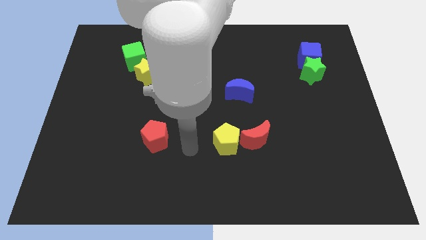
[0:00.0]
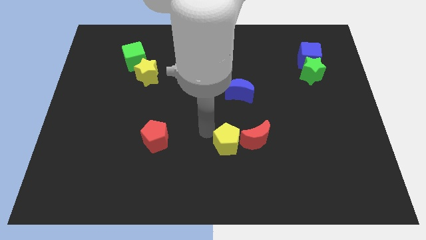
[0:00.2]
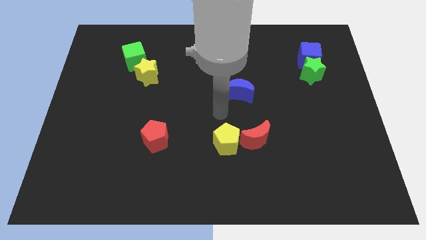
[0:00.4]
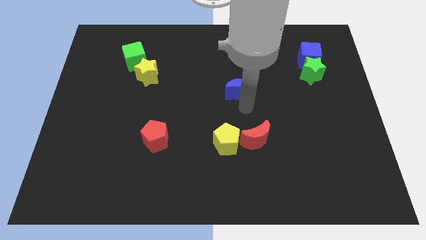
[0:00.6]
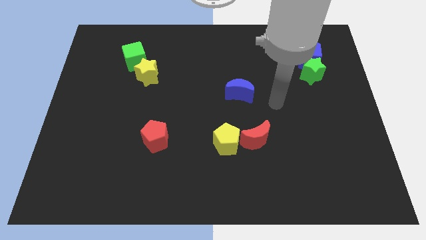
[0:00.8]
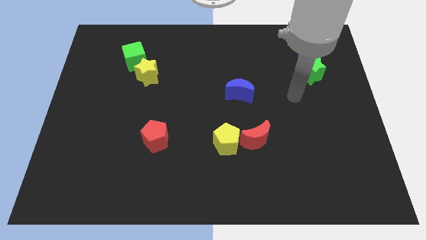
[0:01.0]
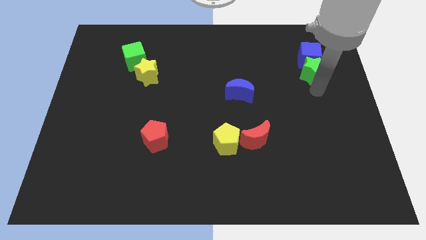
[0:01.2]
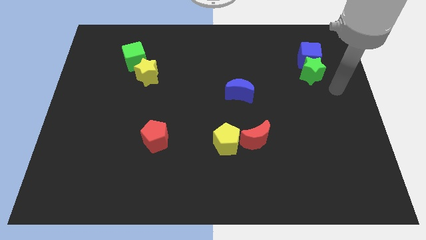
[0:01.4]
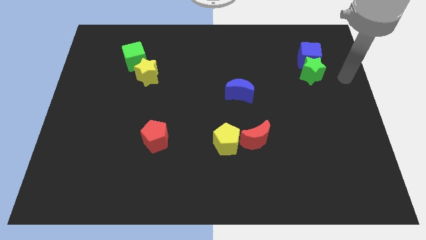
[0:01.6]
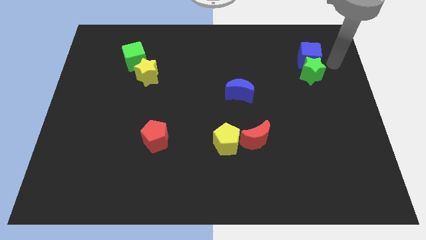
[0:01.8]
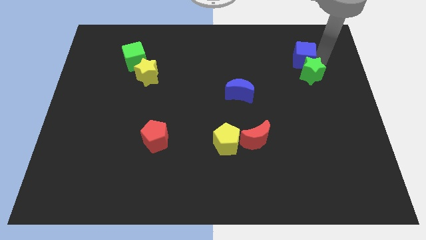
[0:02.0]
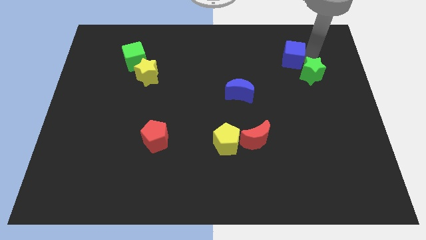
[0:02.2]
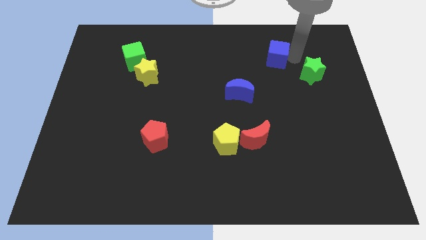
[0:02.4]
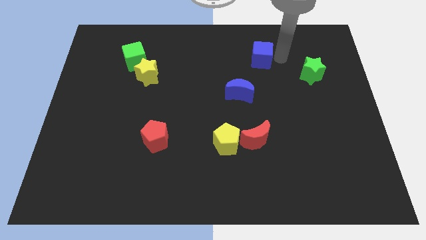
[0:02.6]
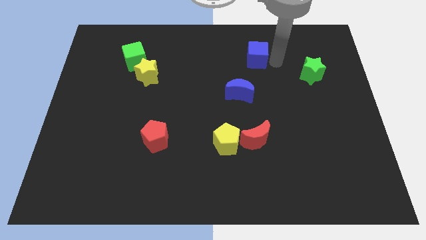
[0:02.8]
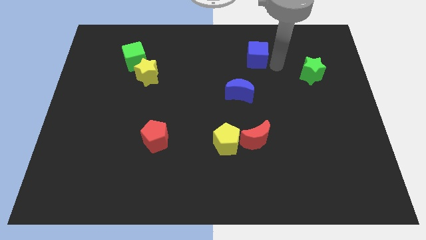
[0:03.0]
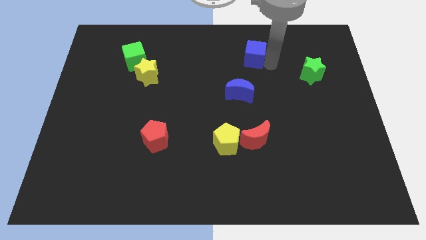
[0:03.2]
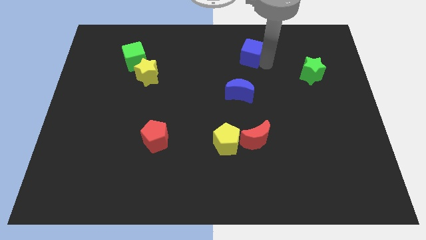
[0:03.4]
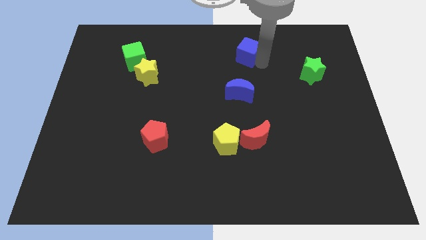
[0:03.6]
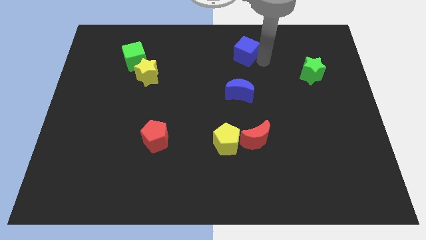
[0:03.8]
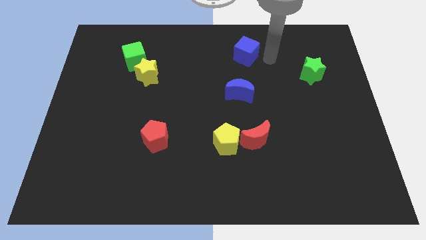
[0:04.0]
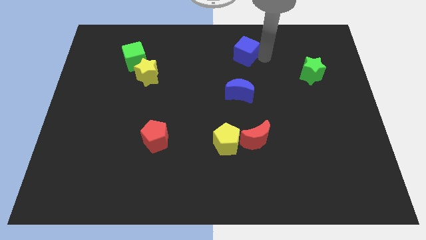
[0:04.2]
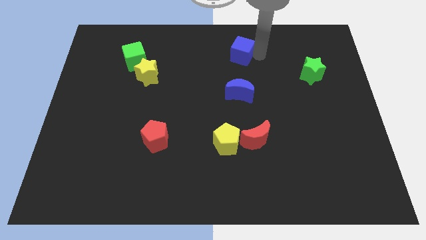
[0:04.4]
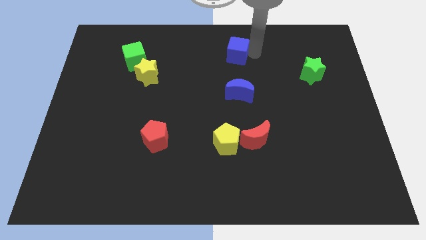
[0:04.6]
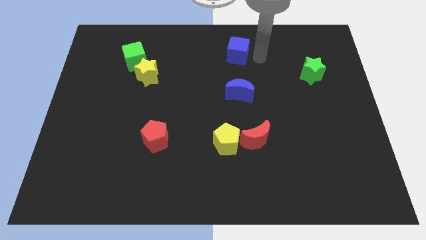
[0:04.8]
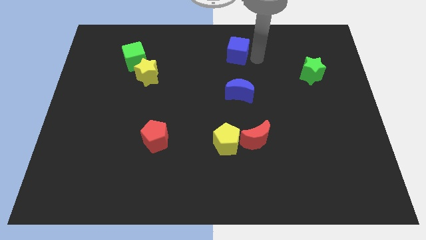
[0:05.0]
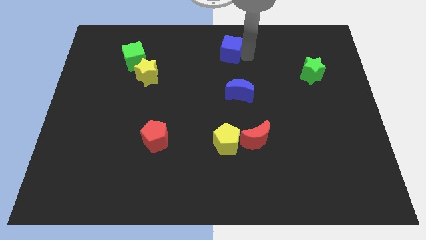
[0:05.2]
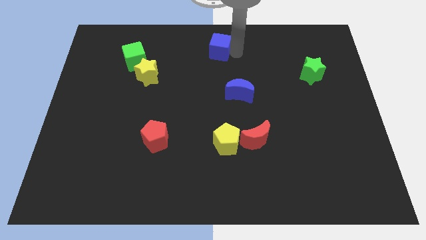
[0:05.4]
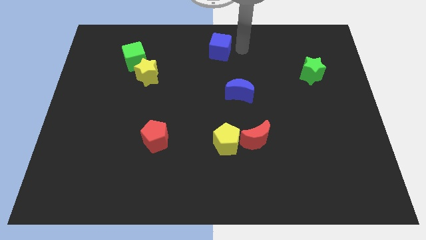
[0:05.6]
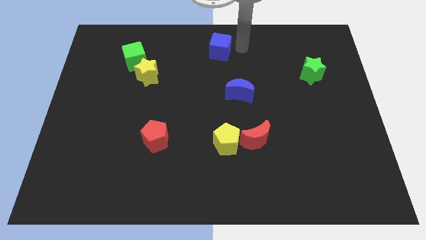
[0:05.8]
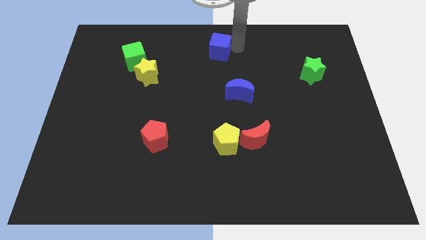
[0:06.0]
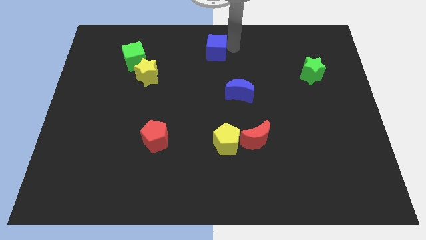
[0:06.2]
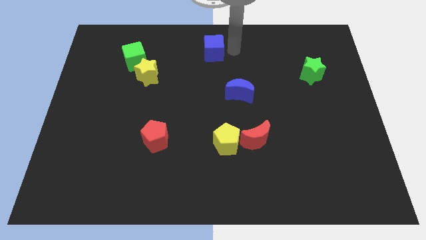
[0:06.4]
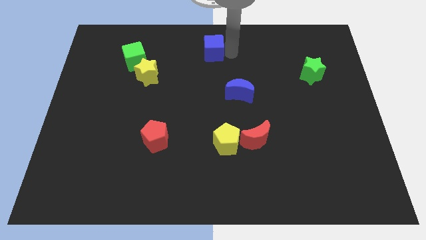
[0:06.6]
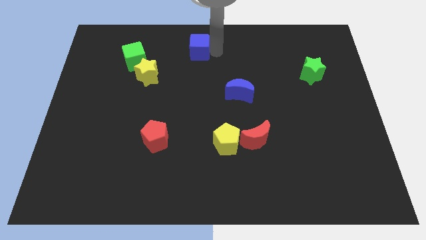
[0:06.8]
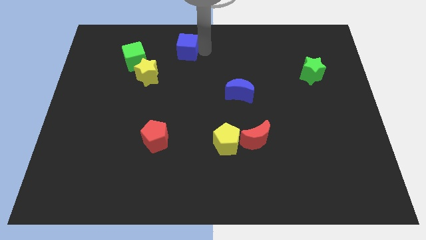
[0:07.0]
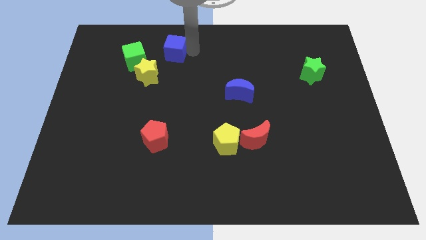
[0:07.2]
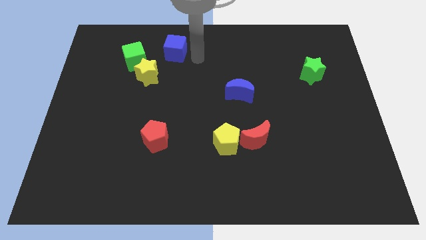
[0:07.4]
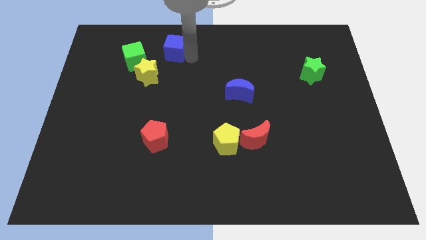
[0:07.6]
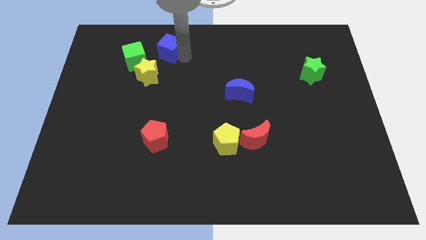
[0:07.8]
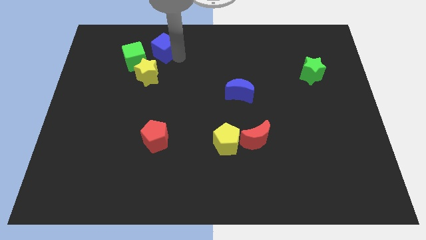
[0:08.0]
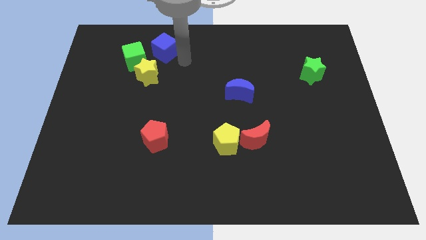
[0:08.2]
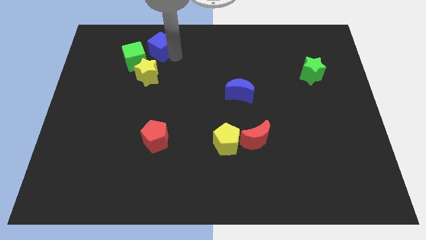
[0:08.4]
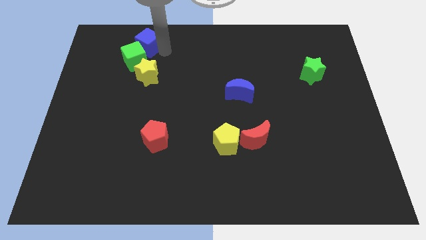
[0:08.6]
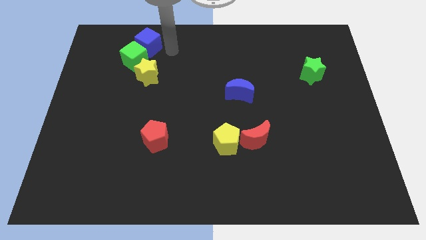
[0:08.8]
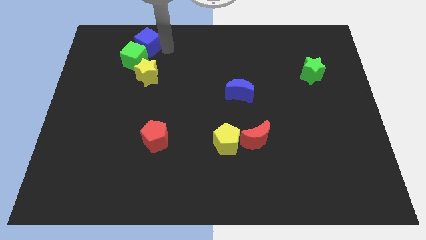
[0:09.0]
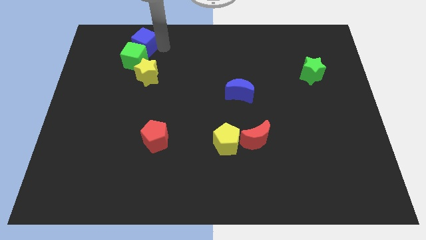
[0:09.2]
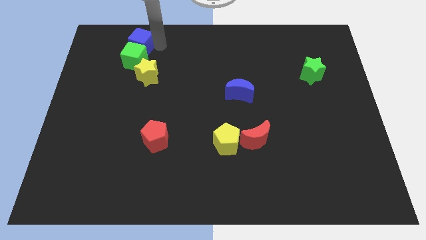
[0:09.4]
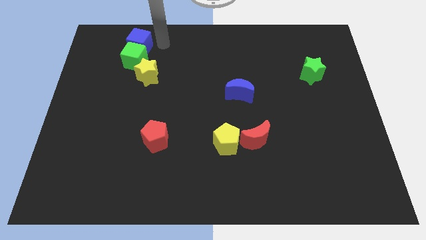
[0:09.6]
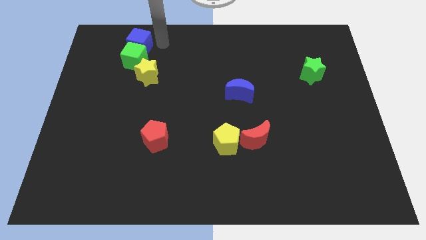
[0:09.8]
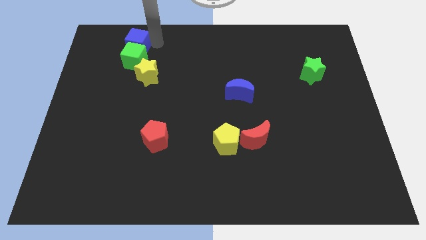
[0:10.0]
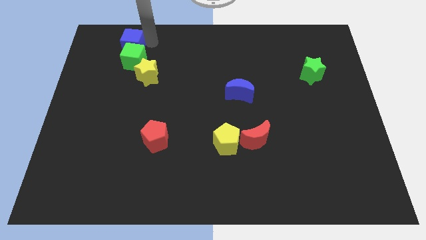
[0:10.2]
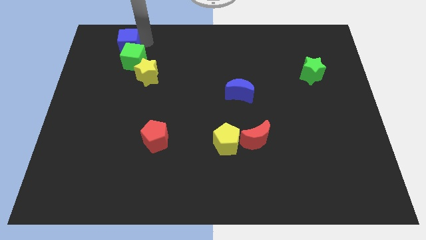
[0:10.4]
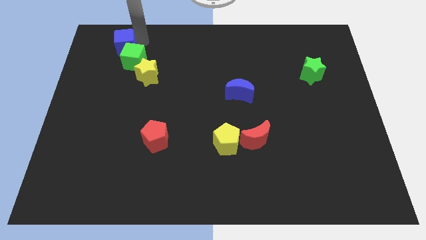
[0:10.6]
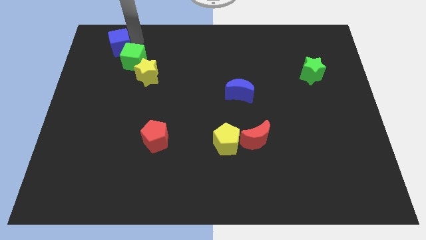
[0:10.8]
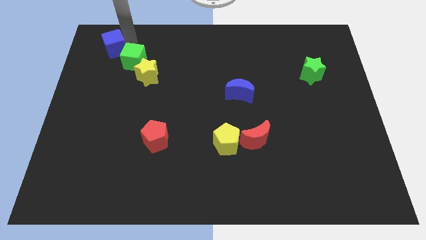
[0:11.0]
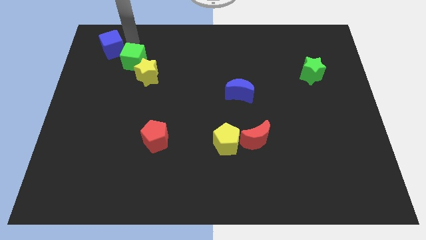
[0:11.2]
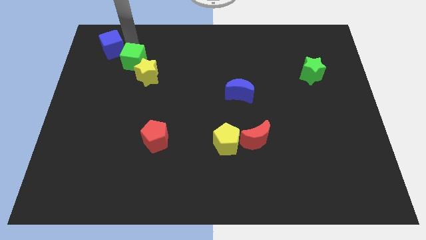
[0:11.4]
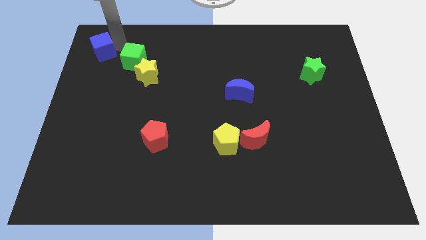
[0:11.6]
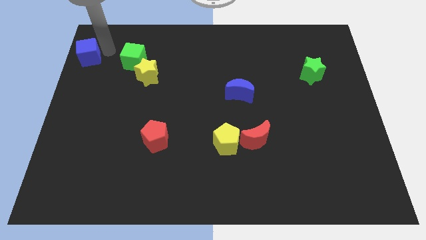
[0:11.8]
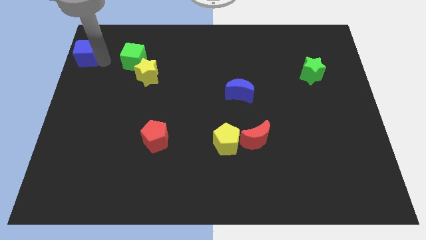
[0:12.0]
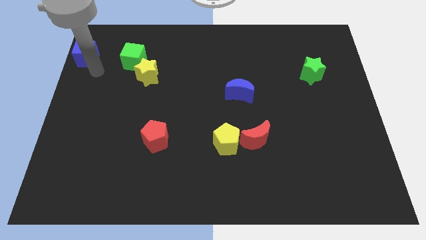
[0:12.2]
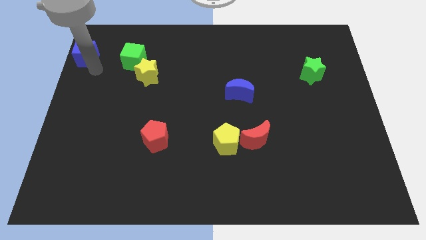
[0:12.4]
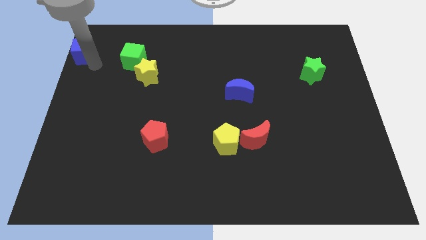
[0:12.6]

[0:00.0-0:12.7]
put the blue cube to the top left corner

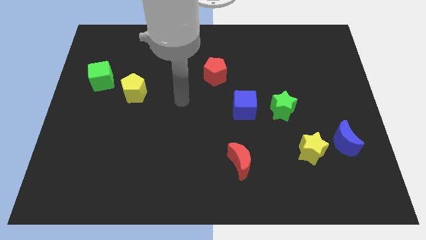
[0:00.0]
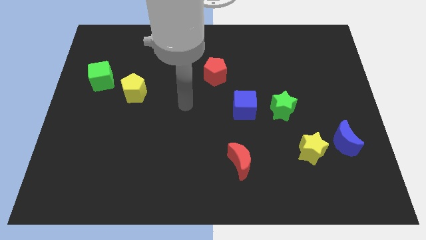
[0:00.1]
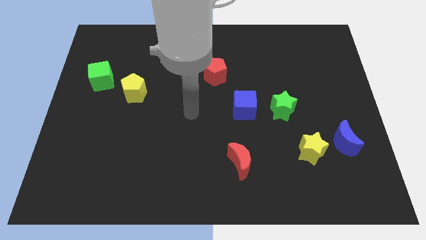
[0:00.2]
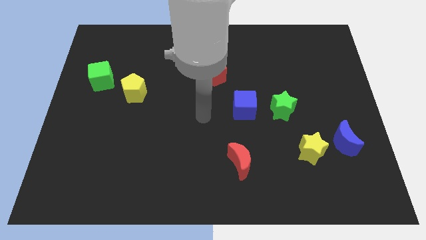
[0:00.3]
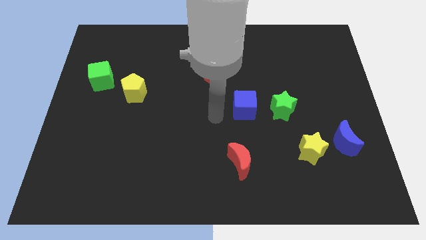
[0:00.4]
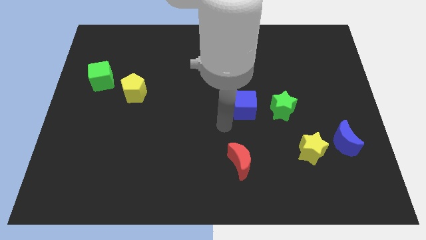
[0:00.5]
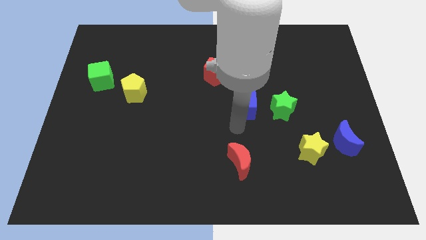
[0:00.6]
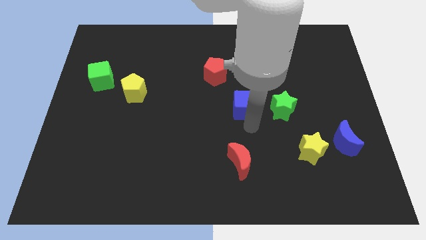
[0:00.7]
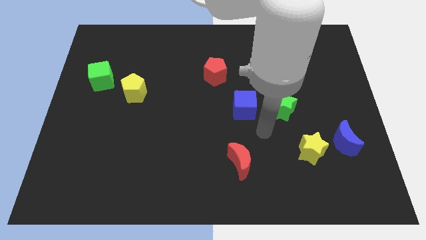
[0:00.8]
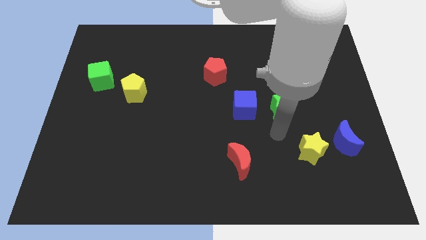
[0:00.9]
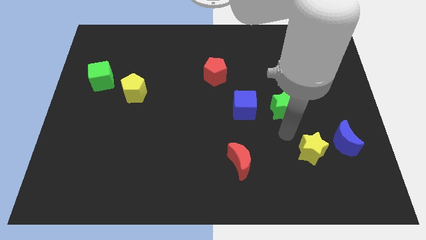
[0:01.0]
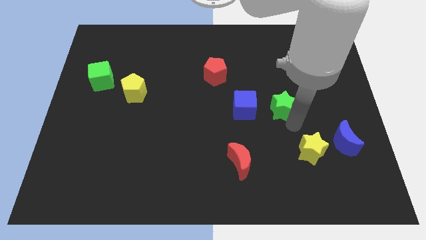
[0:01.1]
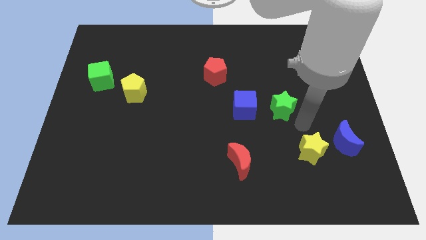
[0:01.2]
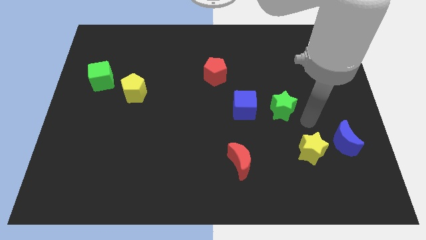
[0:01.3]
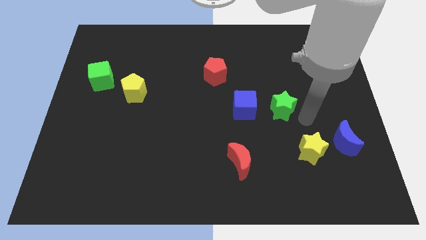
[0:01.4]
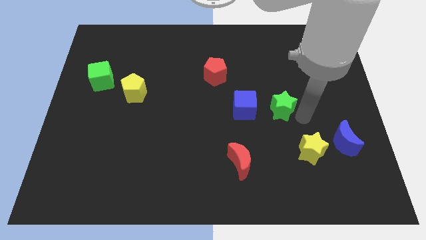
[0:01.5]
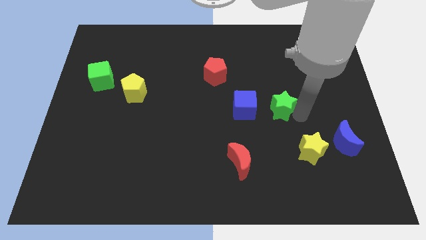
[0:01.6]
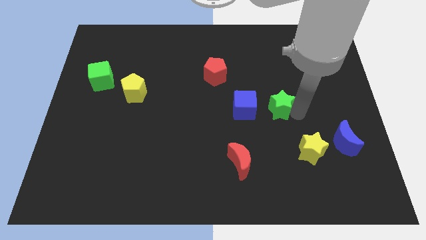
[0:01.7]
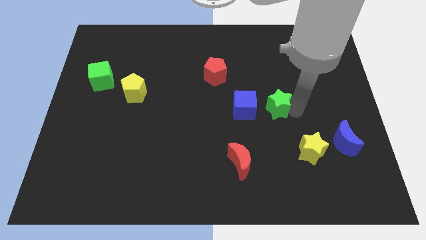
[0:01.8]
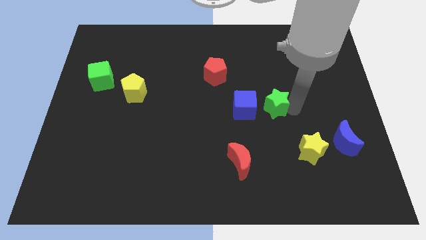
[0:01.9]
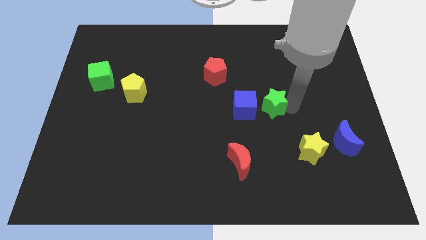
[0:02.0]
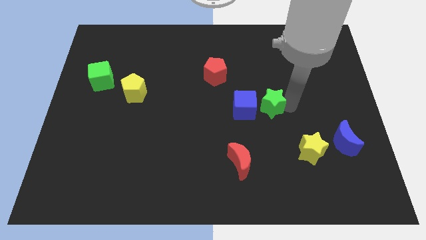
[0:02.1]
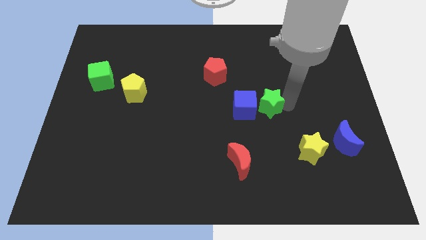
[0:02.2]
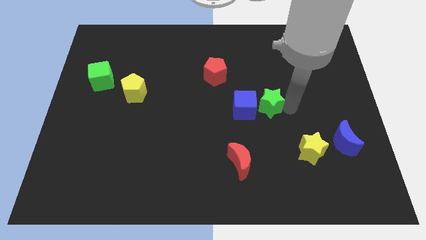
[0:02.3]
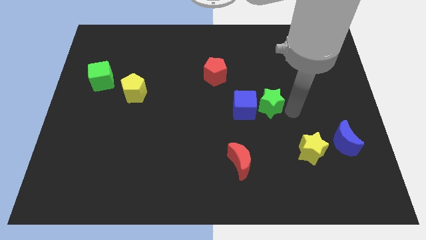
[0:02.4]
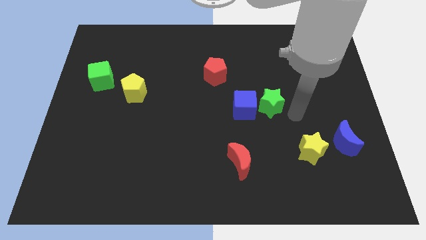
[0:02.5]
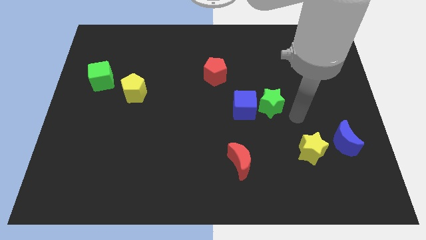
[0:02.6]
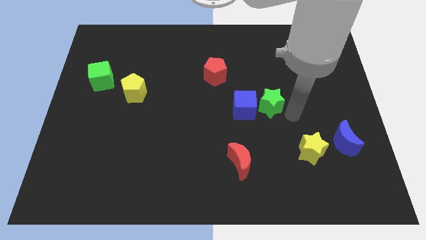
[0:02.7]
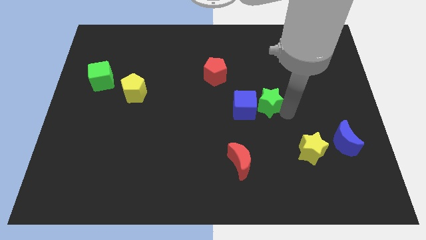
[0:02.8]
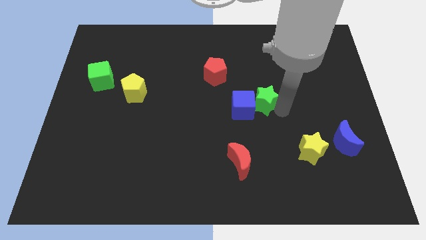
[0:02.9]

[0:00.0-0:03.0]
push the green star to the center
